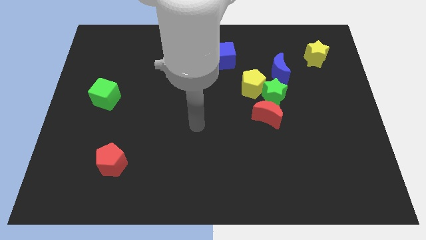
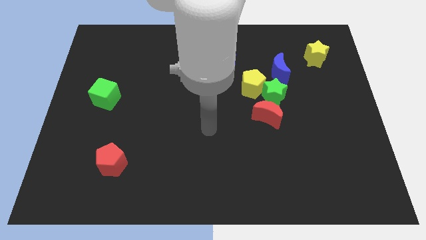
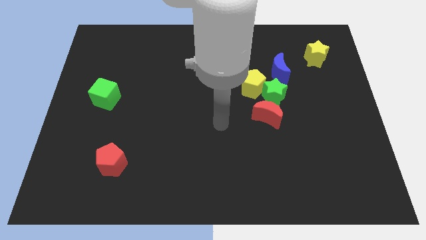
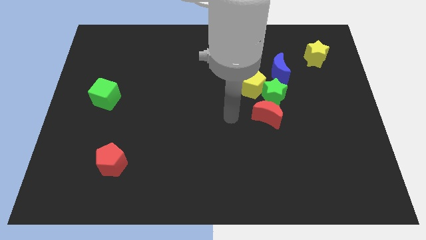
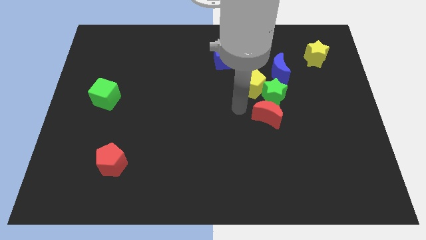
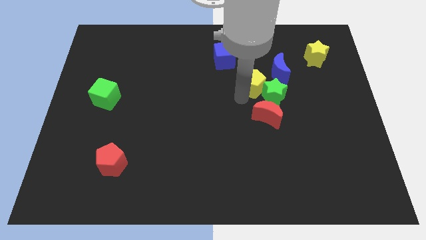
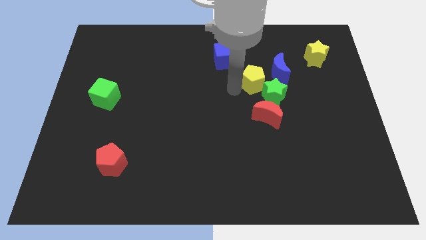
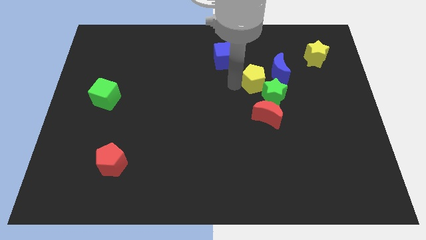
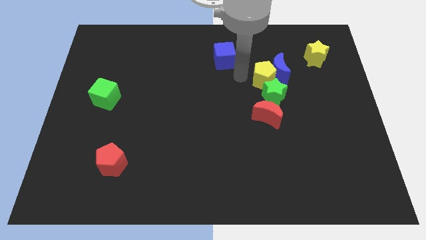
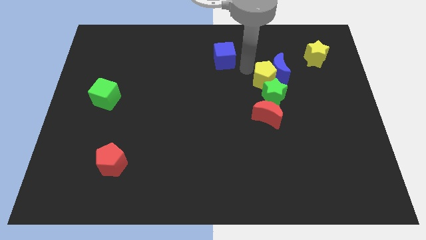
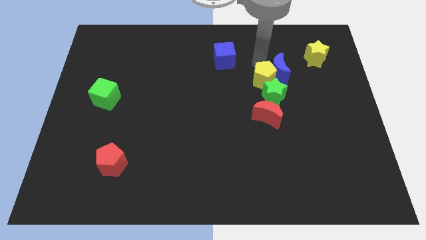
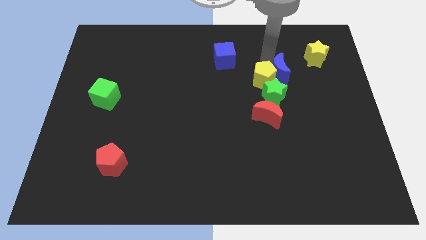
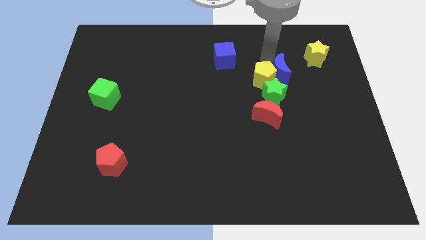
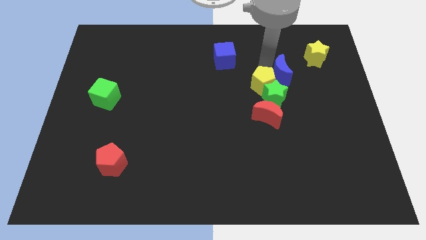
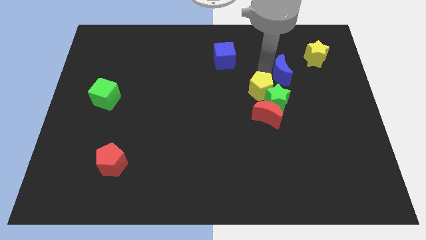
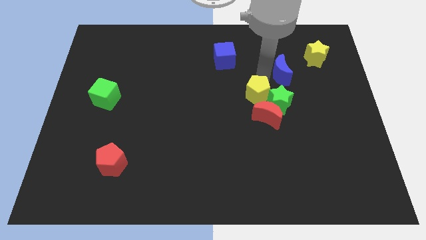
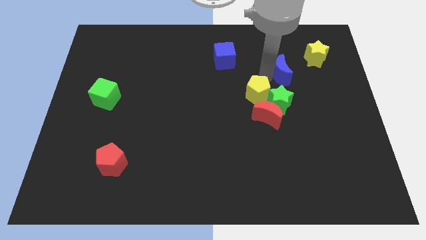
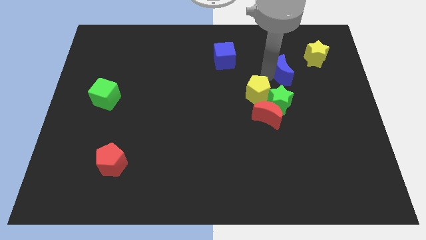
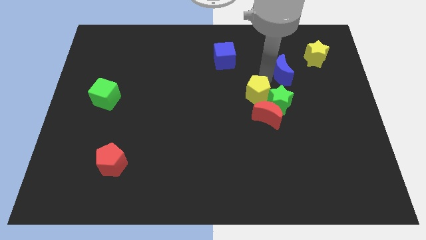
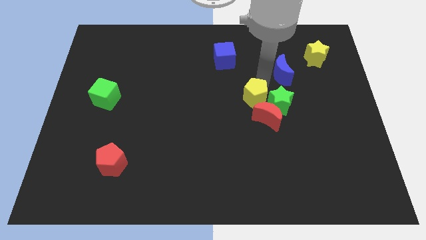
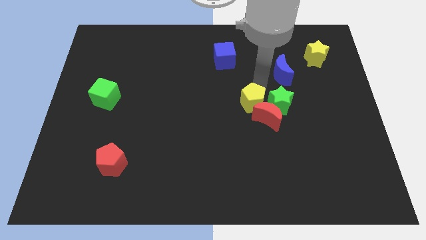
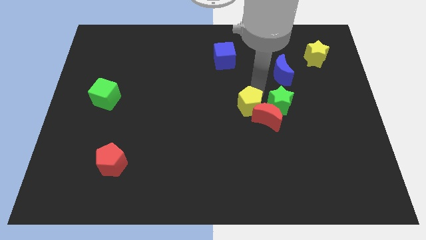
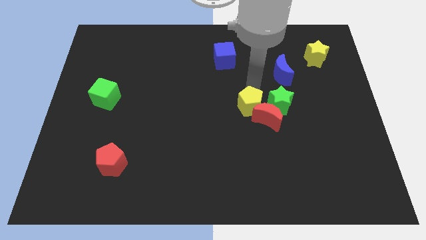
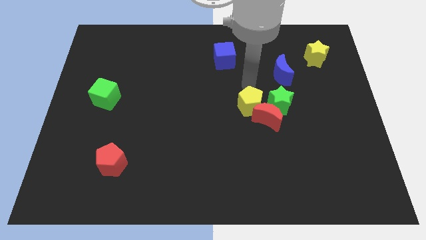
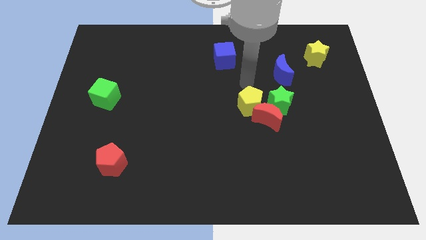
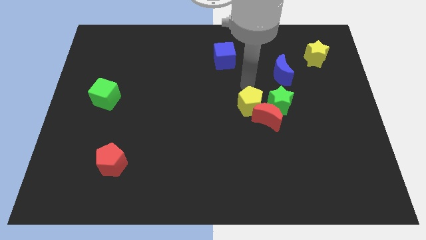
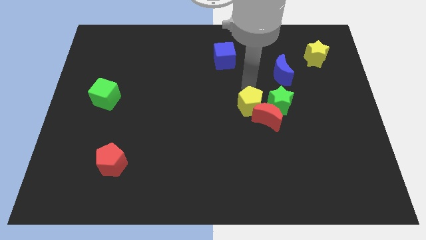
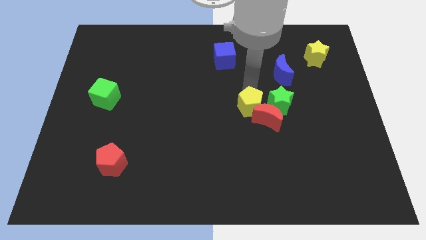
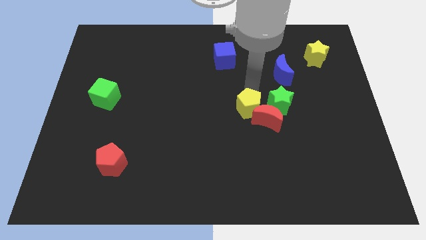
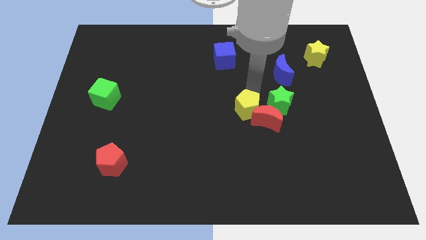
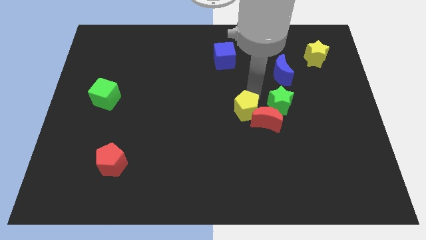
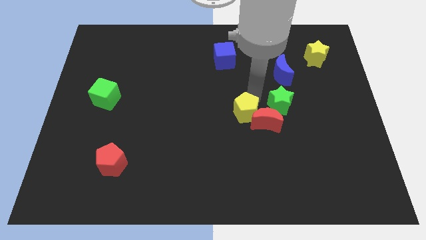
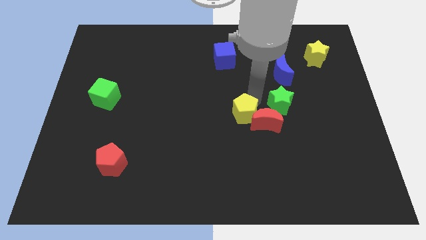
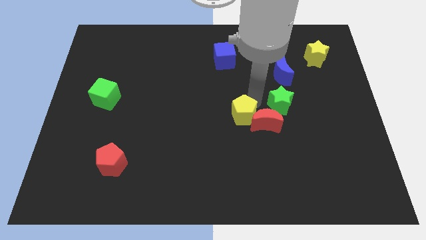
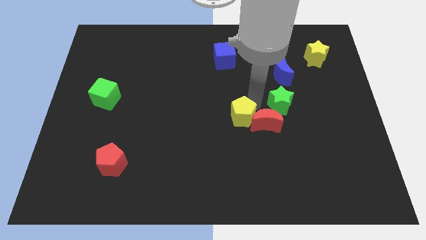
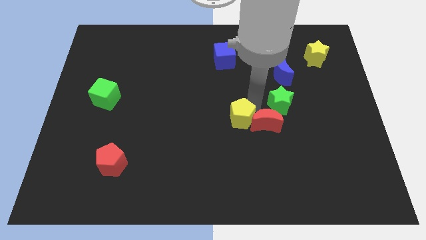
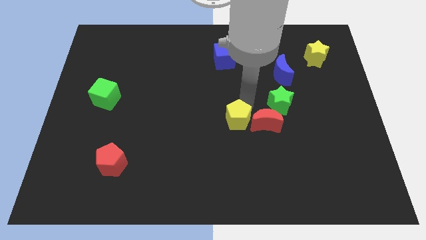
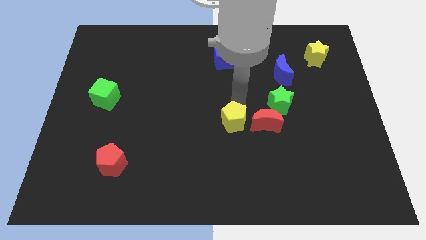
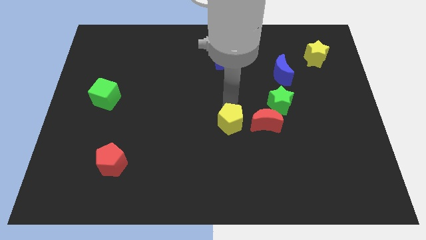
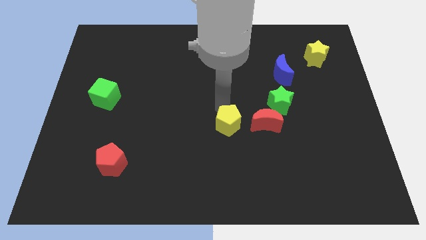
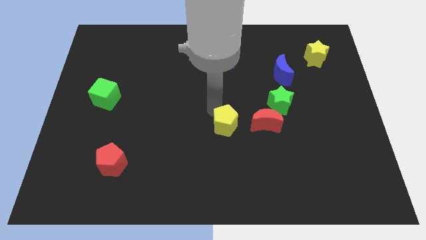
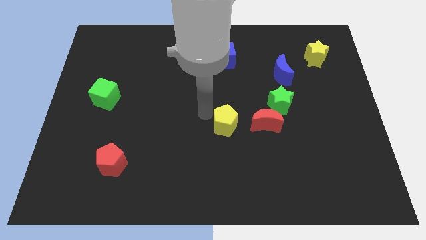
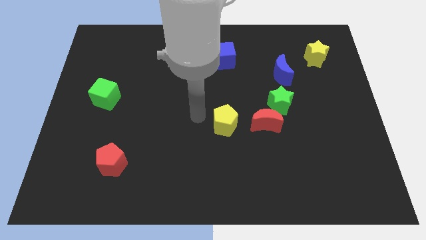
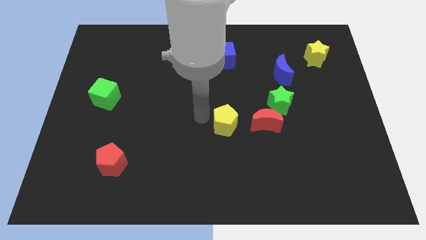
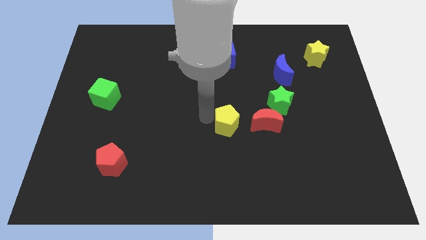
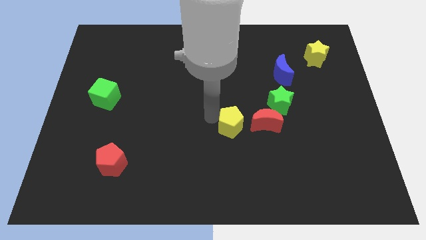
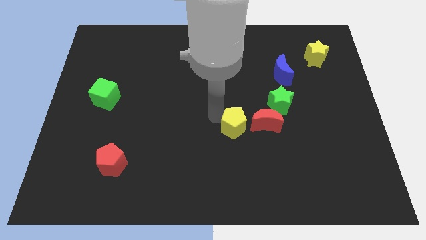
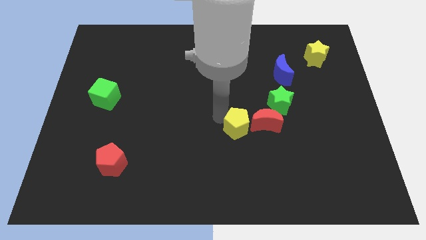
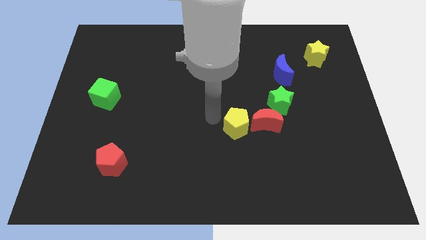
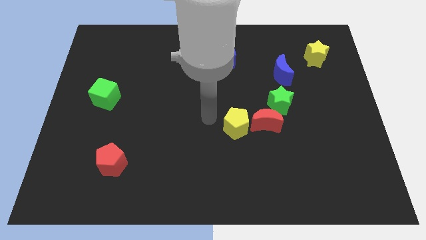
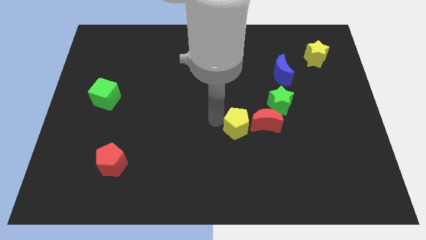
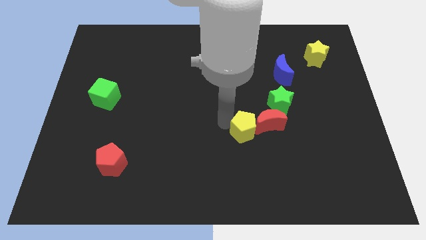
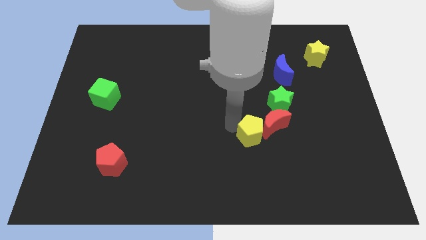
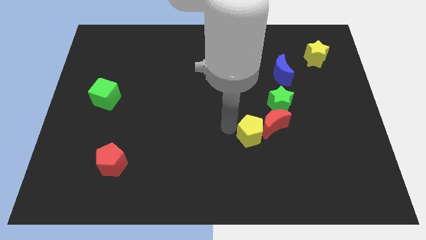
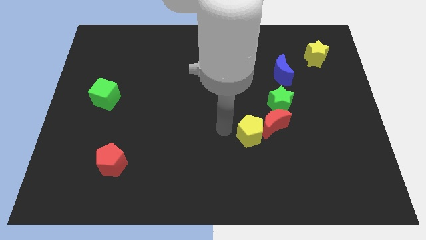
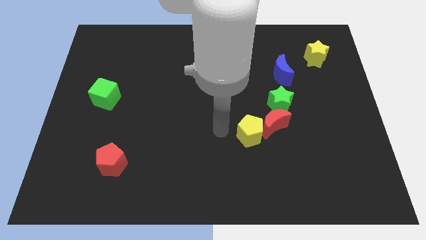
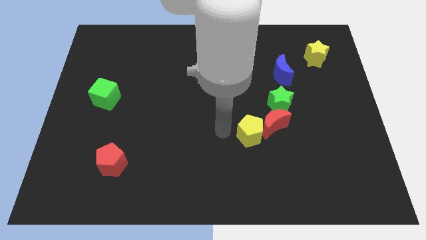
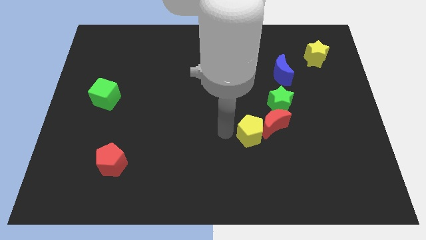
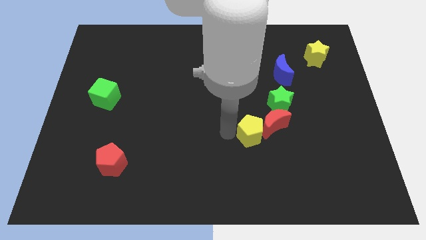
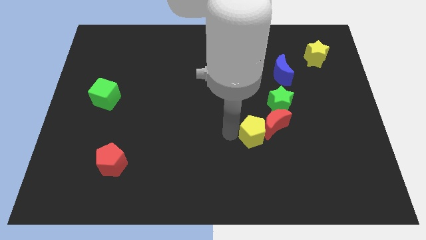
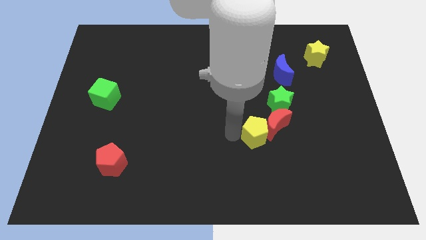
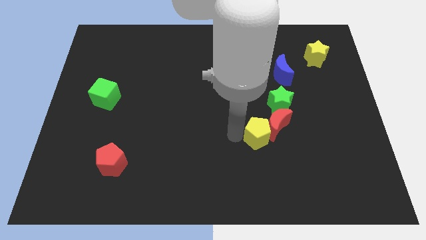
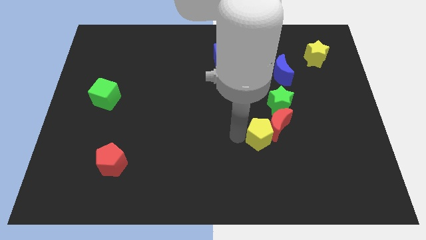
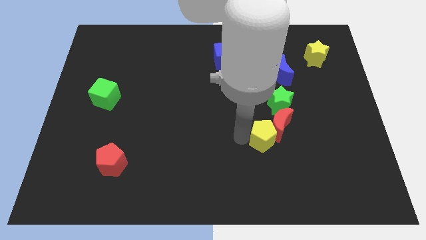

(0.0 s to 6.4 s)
push the yellow pentagon a bit down and to the right diagonally

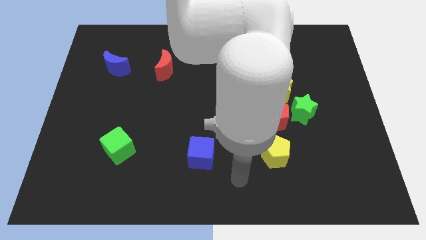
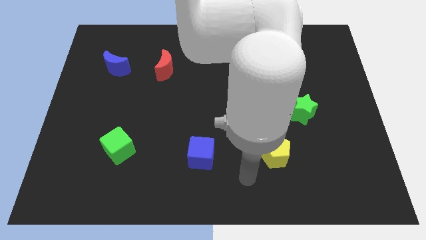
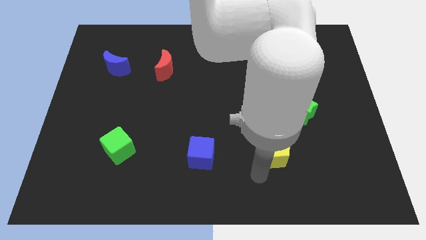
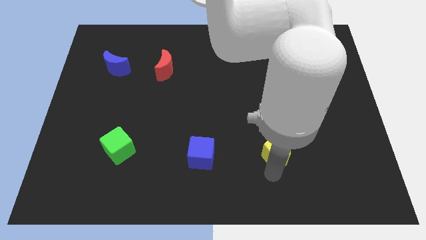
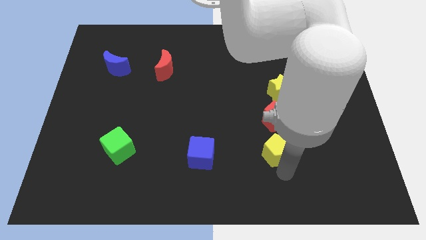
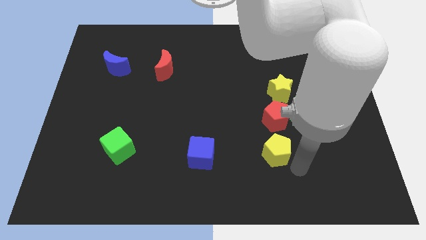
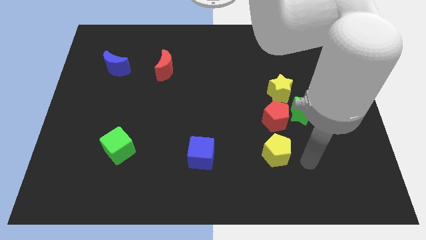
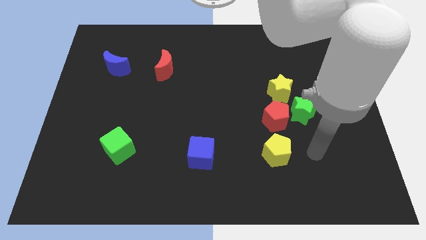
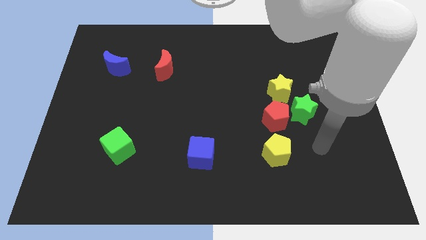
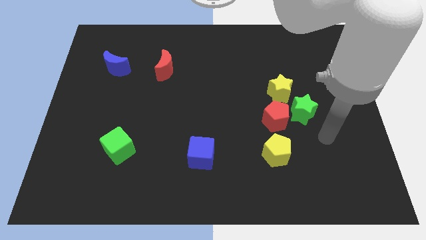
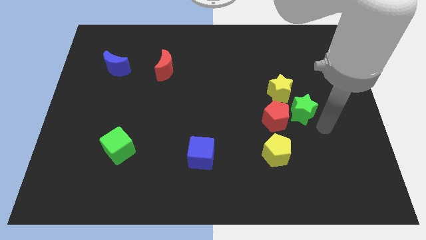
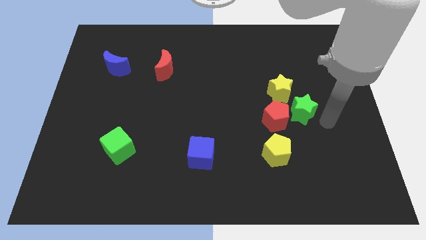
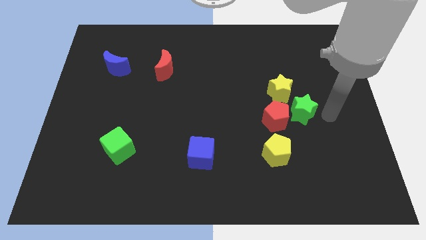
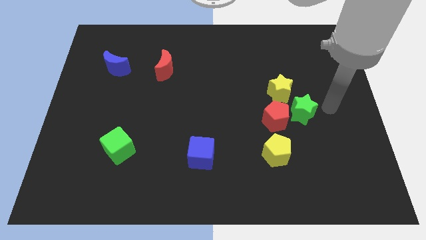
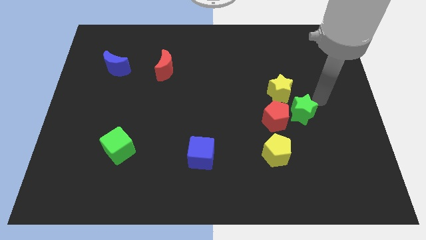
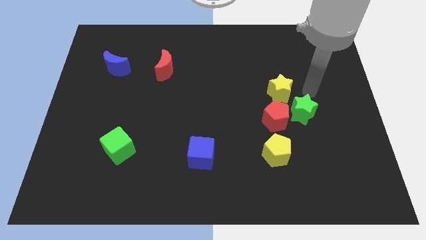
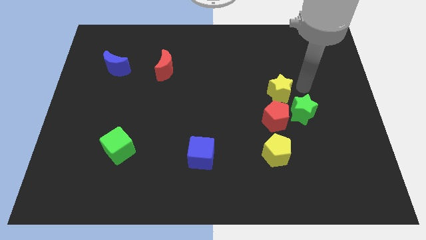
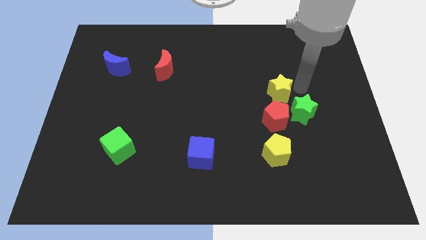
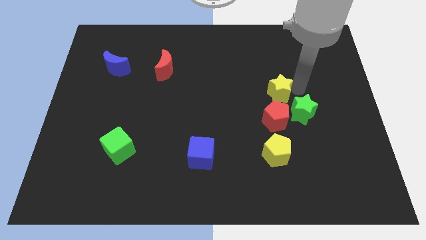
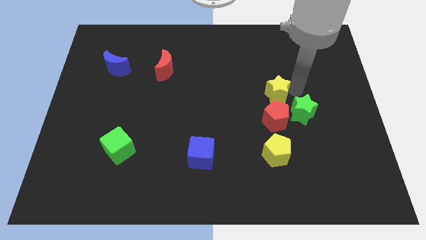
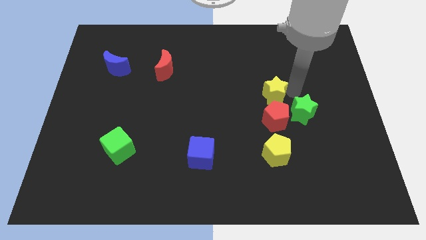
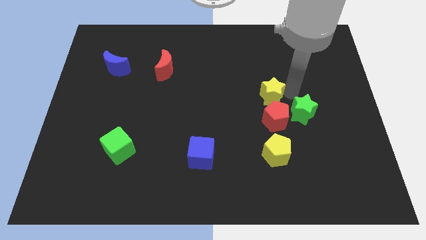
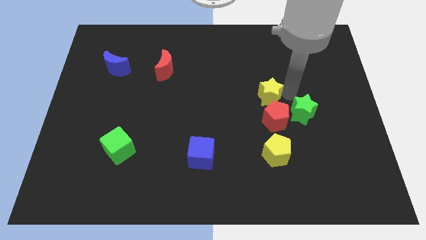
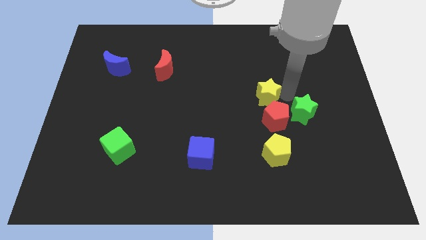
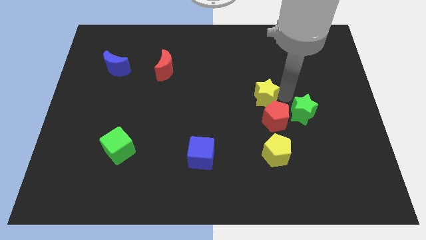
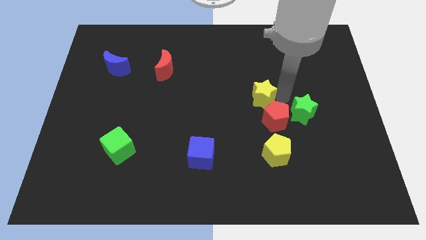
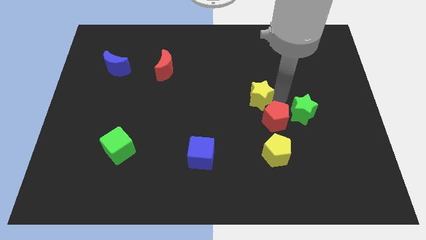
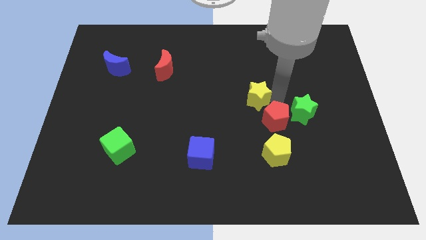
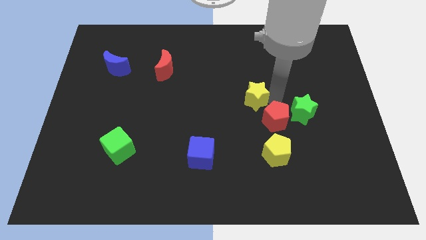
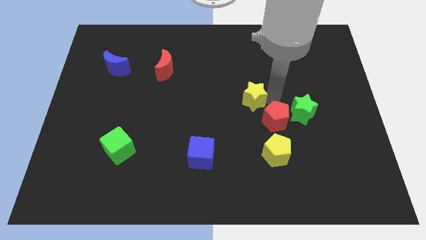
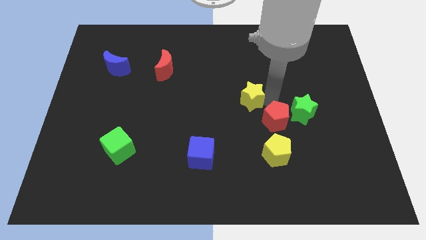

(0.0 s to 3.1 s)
move the yellow star to the left a bit
